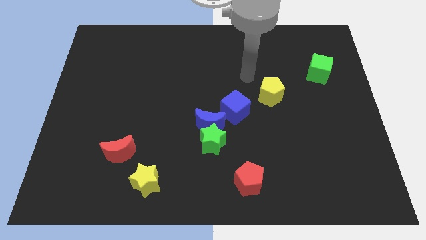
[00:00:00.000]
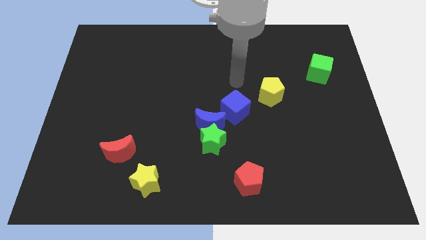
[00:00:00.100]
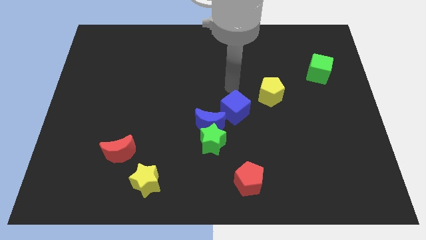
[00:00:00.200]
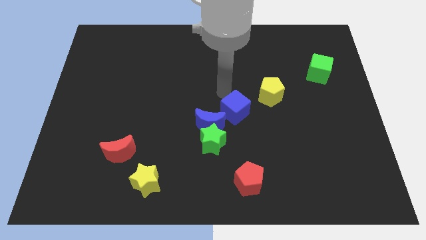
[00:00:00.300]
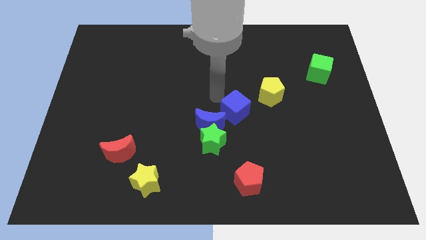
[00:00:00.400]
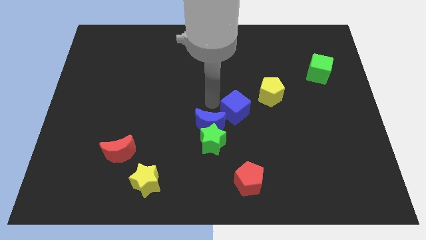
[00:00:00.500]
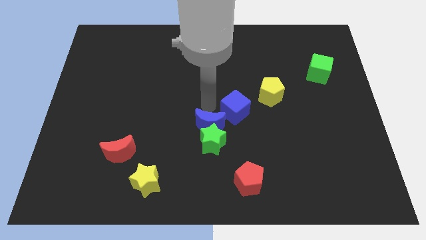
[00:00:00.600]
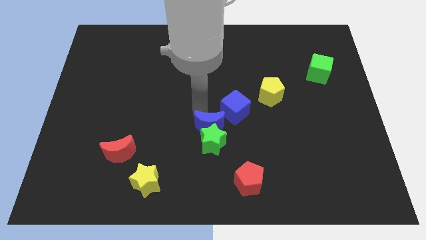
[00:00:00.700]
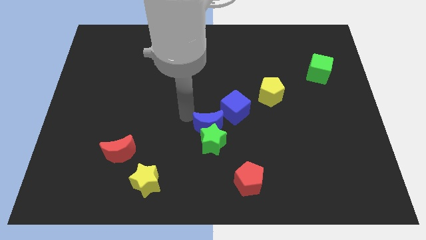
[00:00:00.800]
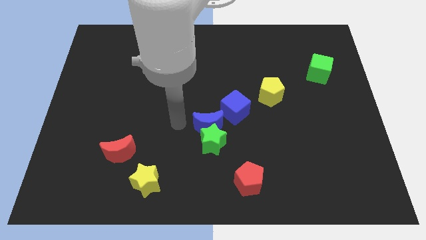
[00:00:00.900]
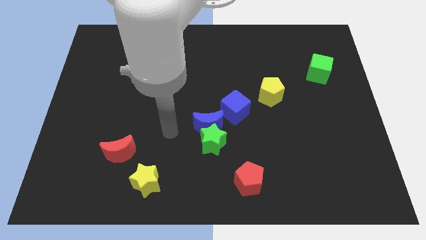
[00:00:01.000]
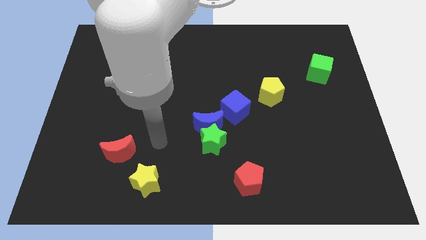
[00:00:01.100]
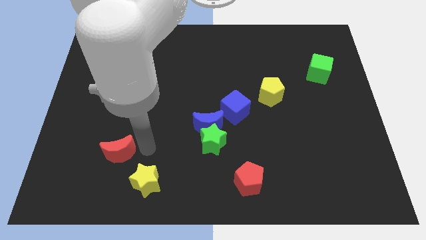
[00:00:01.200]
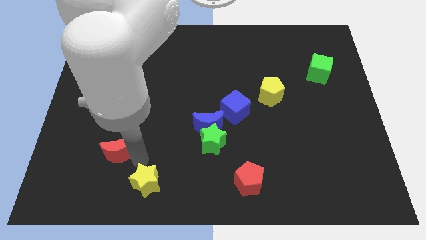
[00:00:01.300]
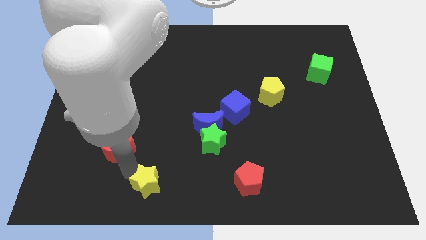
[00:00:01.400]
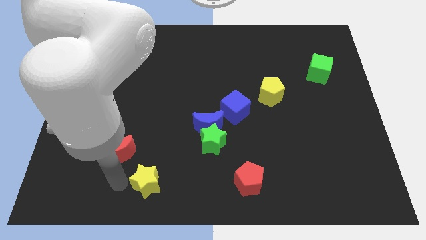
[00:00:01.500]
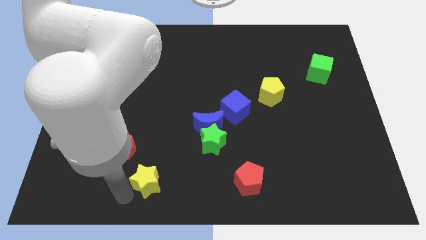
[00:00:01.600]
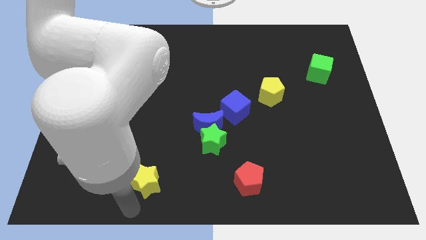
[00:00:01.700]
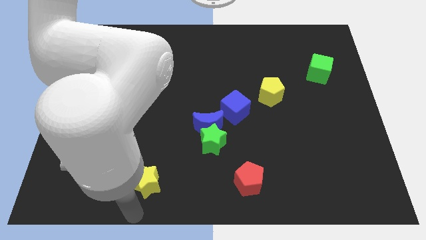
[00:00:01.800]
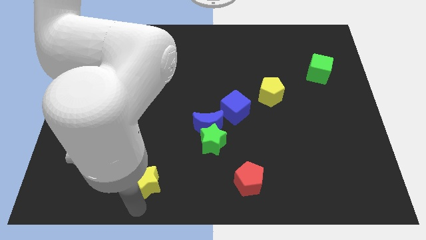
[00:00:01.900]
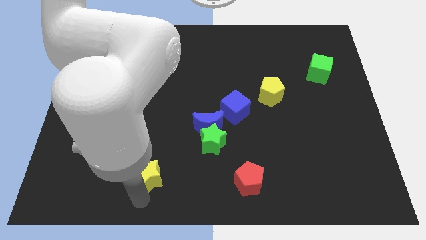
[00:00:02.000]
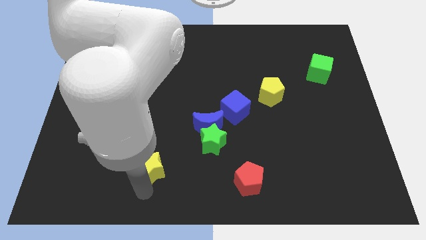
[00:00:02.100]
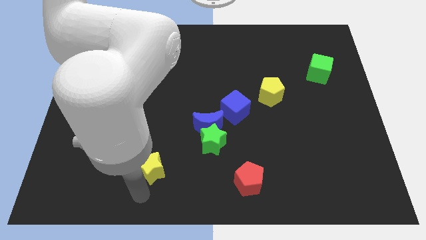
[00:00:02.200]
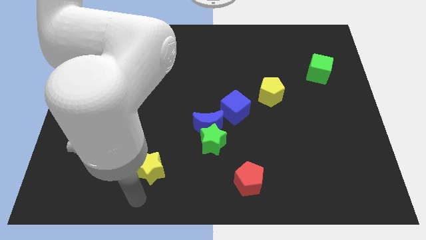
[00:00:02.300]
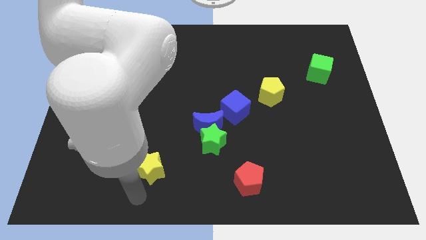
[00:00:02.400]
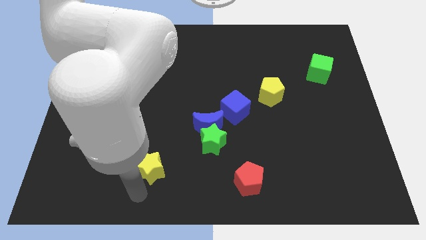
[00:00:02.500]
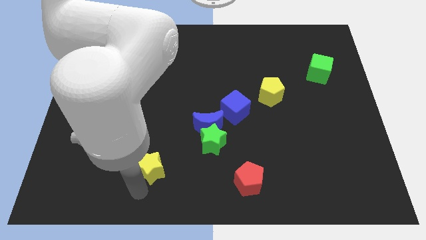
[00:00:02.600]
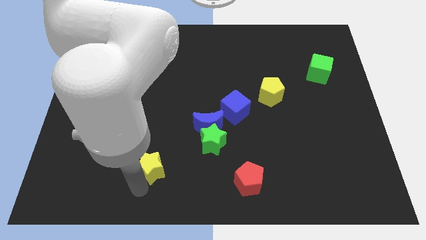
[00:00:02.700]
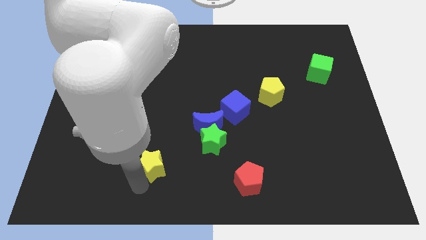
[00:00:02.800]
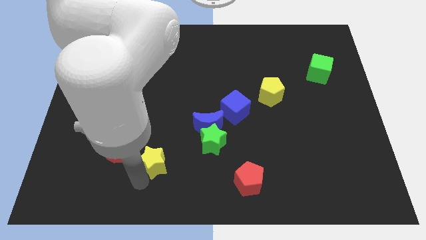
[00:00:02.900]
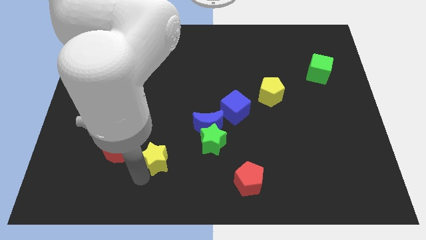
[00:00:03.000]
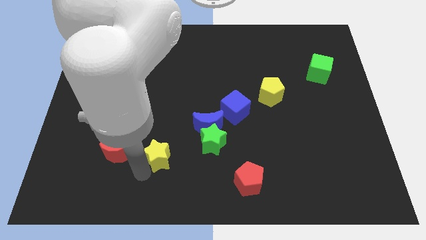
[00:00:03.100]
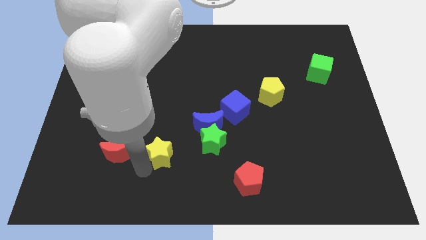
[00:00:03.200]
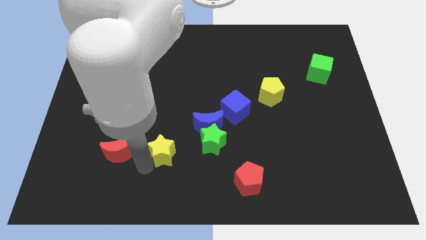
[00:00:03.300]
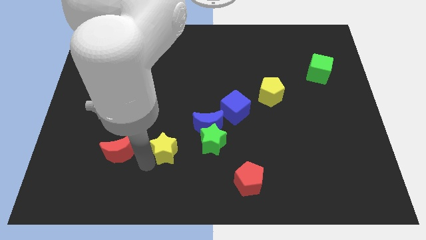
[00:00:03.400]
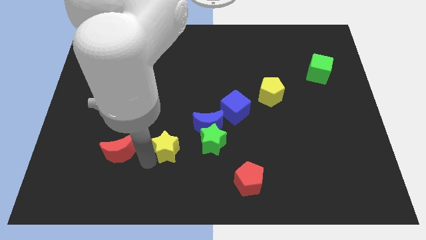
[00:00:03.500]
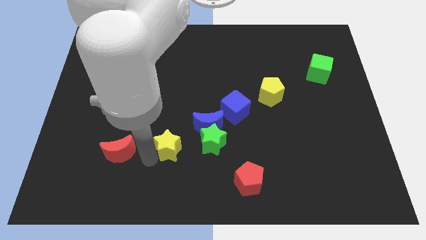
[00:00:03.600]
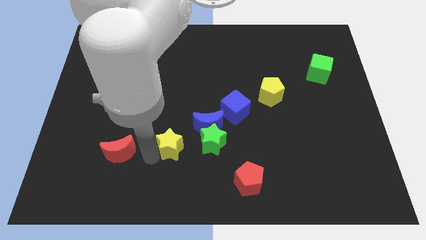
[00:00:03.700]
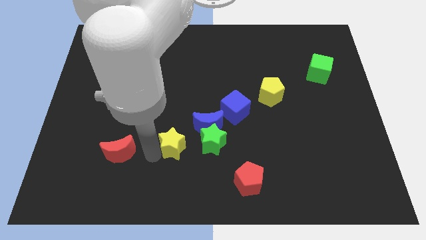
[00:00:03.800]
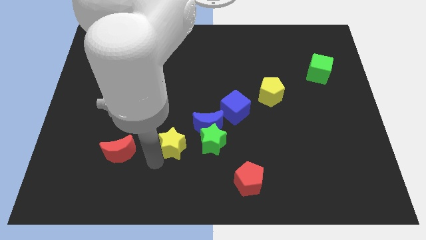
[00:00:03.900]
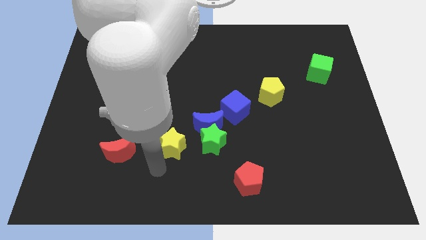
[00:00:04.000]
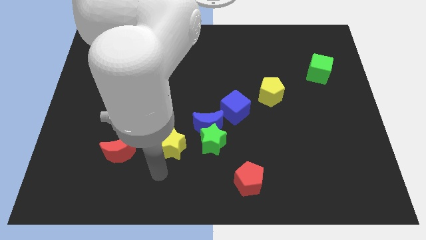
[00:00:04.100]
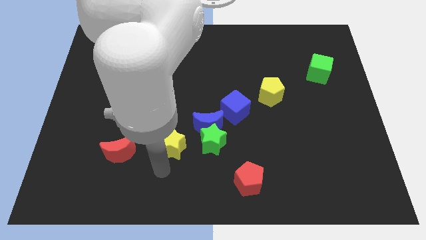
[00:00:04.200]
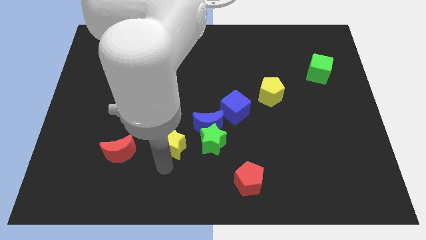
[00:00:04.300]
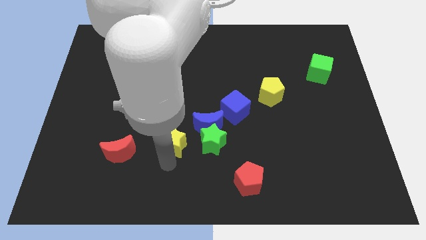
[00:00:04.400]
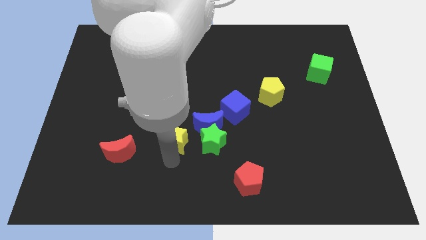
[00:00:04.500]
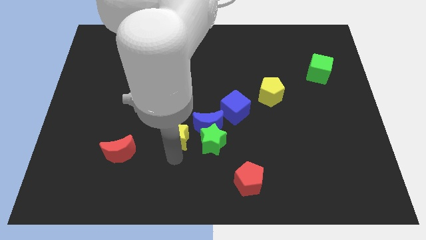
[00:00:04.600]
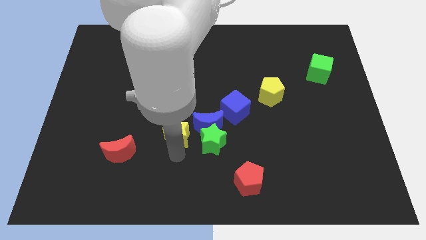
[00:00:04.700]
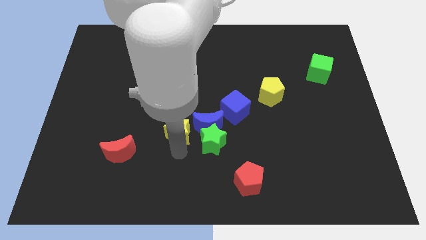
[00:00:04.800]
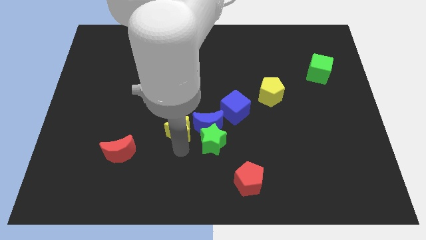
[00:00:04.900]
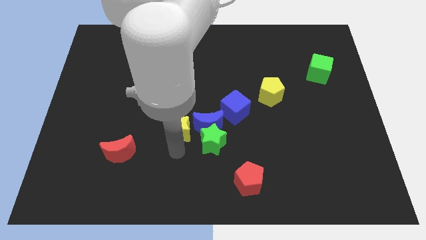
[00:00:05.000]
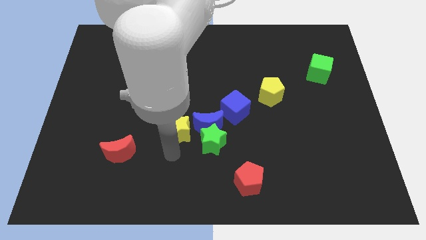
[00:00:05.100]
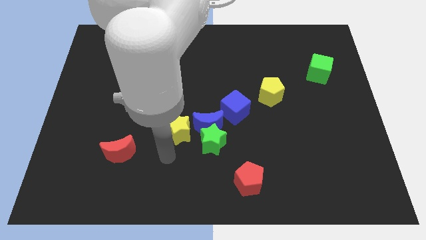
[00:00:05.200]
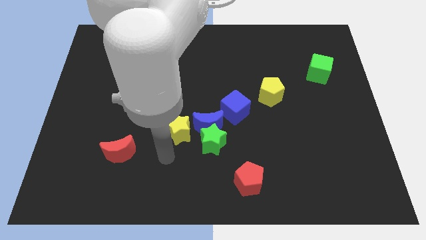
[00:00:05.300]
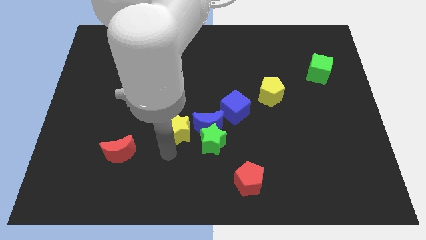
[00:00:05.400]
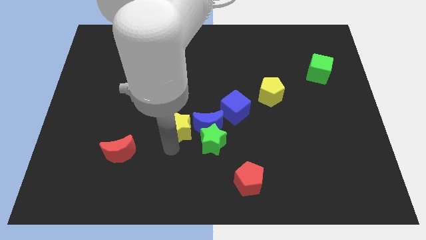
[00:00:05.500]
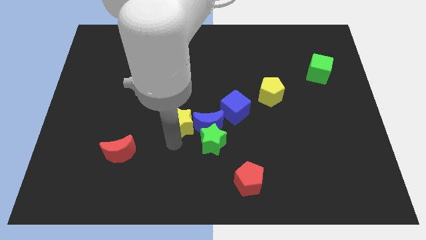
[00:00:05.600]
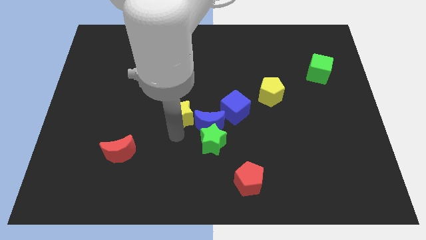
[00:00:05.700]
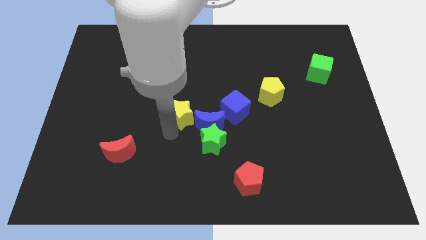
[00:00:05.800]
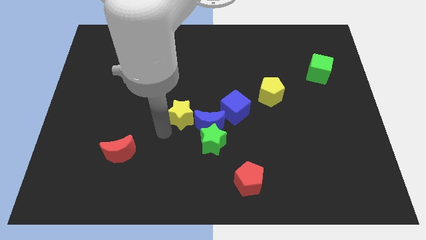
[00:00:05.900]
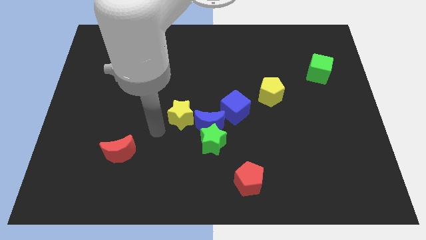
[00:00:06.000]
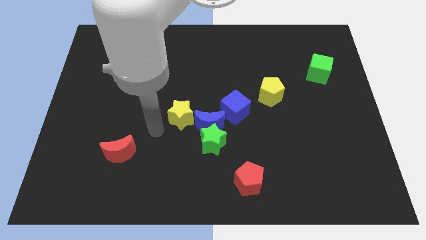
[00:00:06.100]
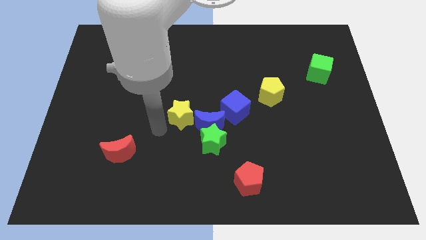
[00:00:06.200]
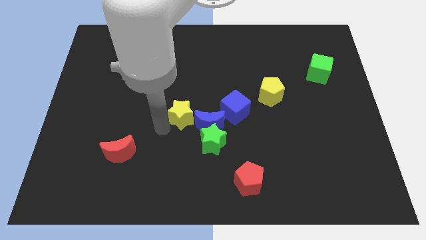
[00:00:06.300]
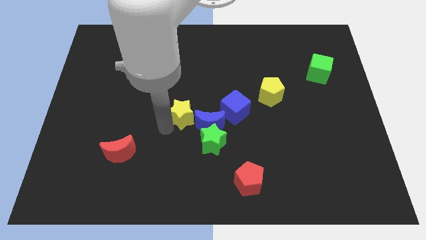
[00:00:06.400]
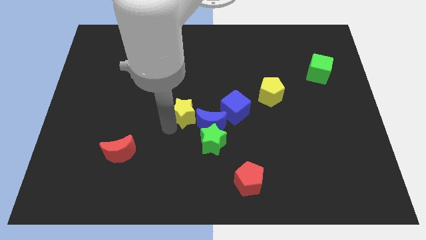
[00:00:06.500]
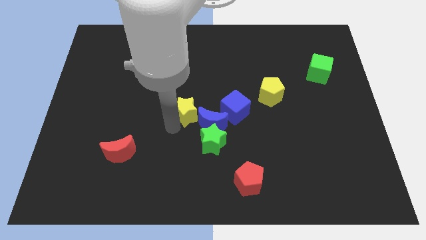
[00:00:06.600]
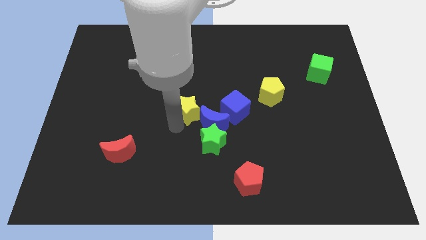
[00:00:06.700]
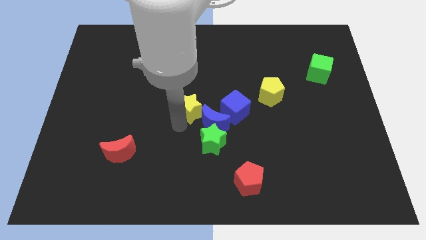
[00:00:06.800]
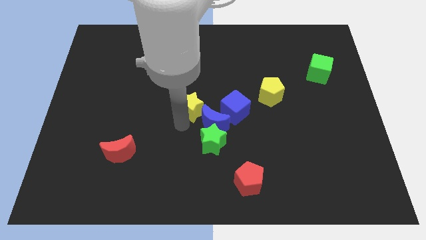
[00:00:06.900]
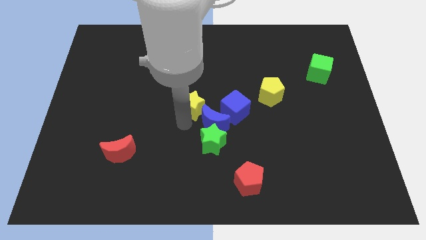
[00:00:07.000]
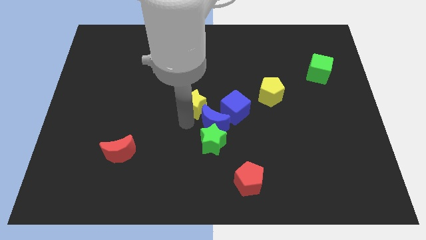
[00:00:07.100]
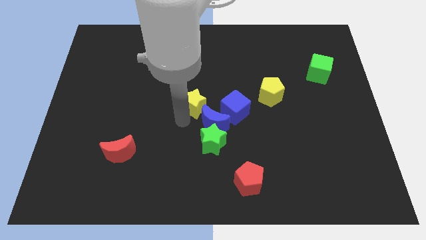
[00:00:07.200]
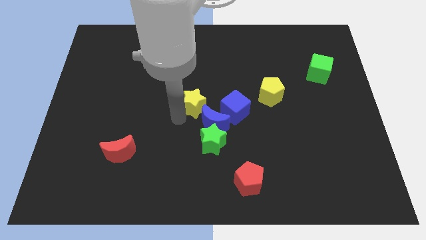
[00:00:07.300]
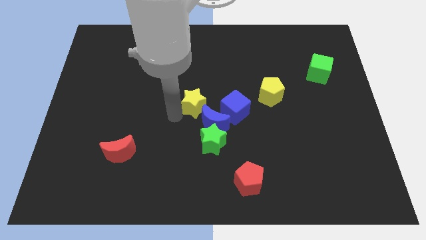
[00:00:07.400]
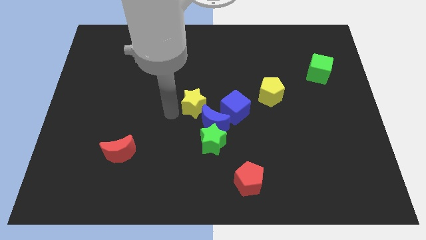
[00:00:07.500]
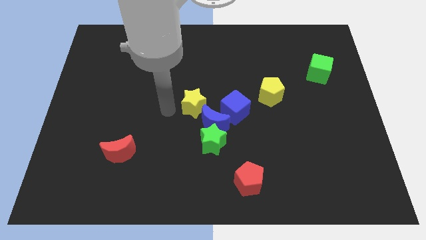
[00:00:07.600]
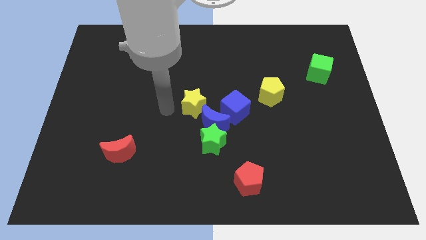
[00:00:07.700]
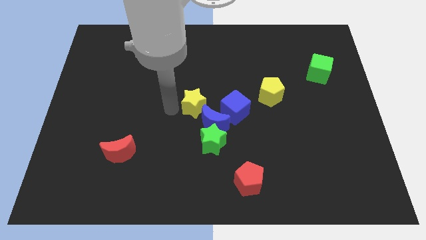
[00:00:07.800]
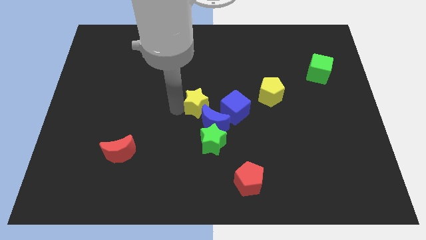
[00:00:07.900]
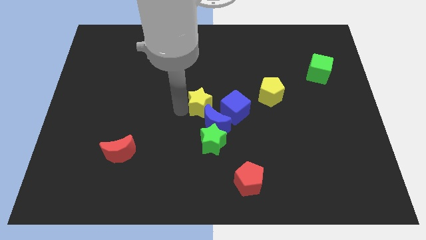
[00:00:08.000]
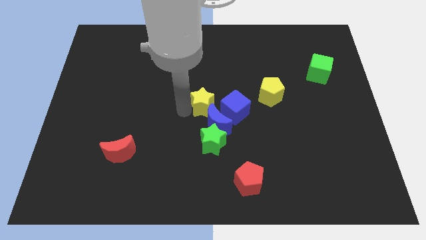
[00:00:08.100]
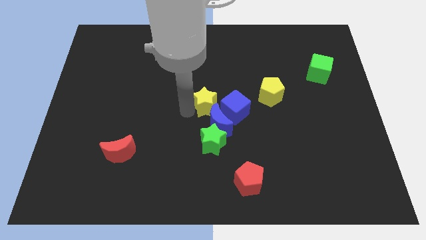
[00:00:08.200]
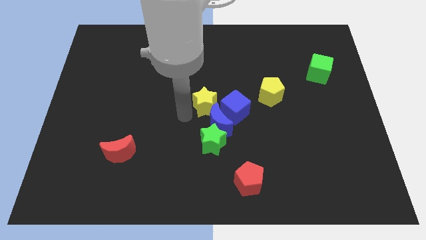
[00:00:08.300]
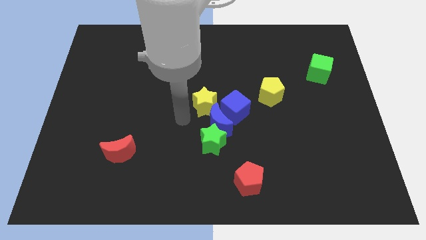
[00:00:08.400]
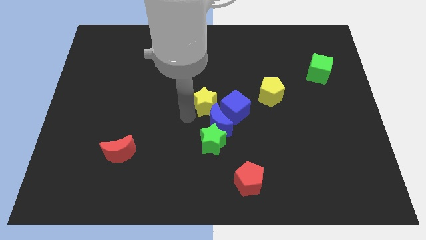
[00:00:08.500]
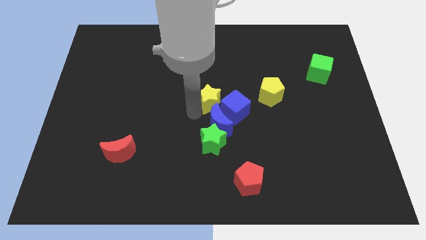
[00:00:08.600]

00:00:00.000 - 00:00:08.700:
move the yellow star left of the yellow pentagon
